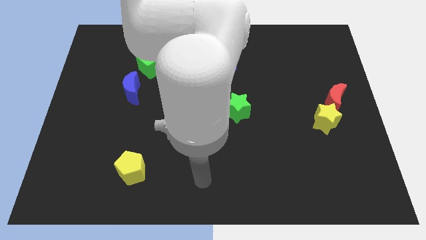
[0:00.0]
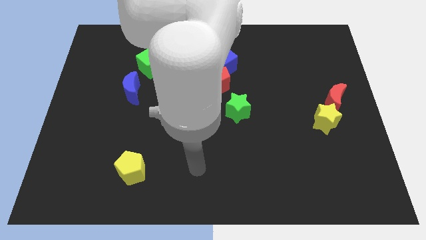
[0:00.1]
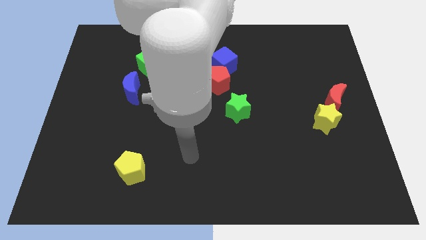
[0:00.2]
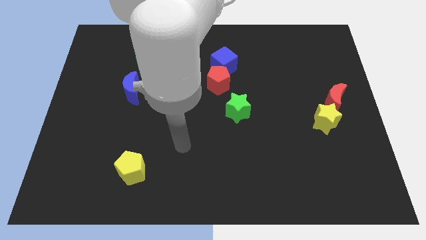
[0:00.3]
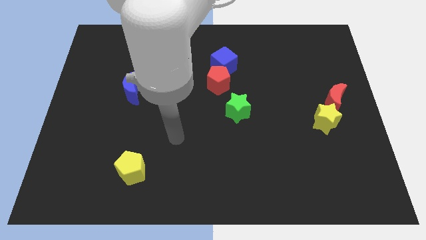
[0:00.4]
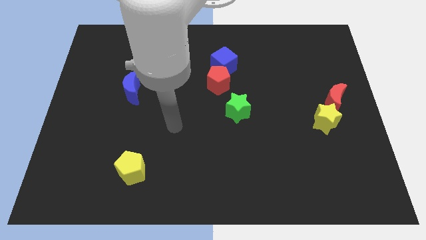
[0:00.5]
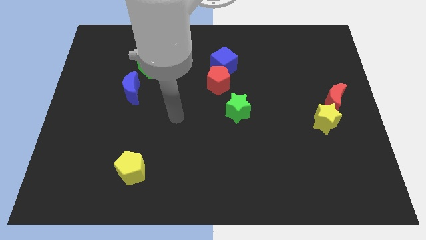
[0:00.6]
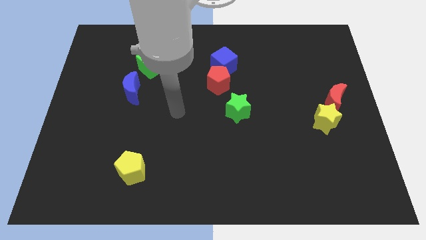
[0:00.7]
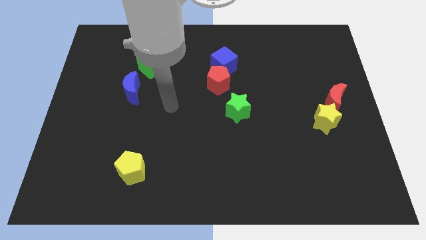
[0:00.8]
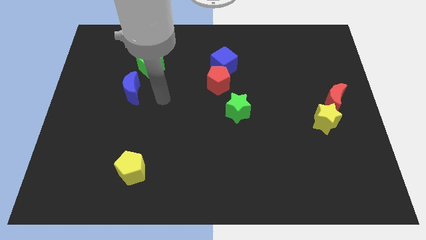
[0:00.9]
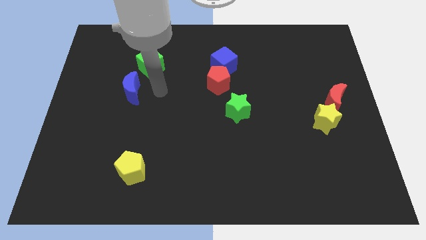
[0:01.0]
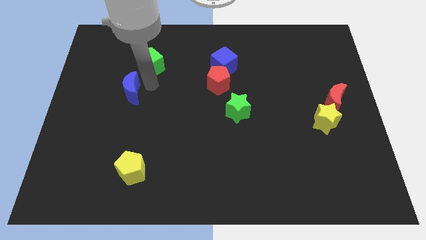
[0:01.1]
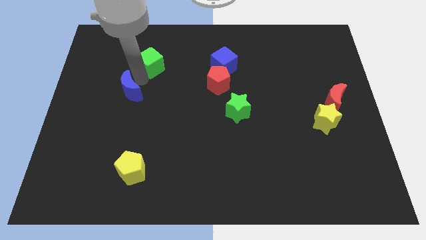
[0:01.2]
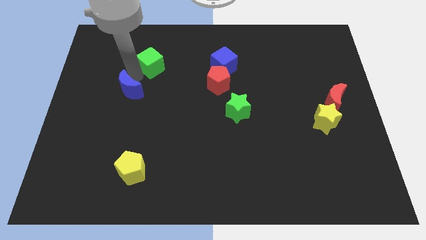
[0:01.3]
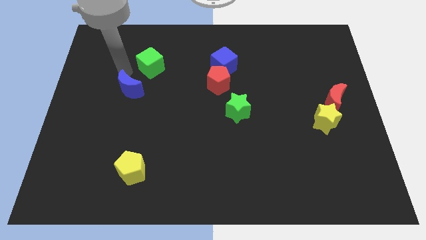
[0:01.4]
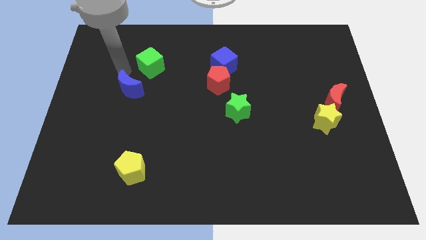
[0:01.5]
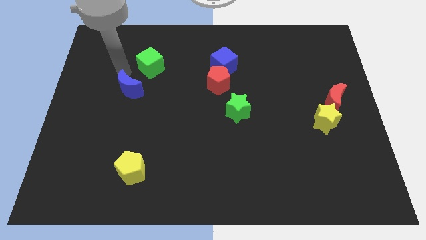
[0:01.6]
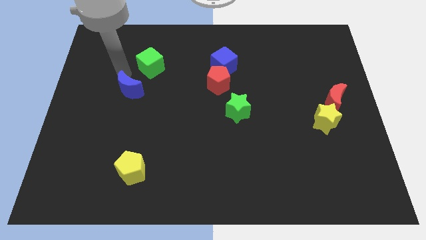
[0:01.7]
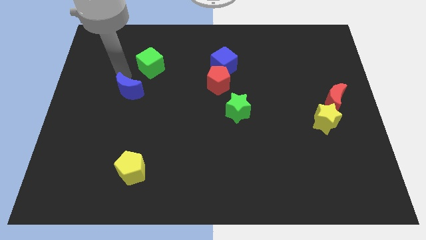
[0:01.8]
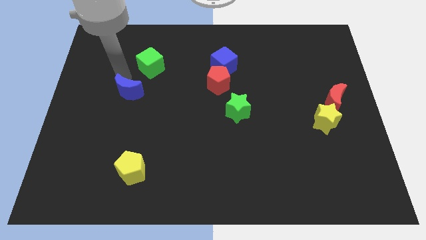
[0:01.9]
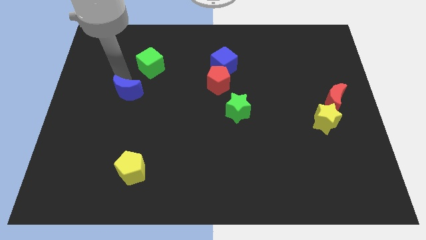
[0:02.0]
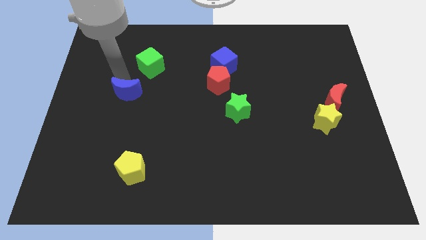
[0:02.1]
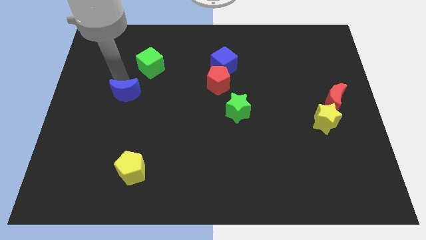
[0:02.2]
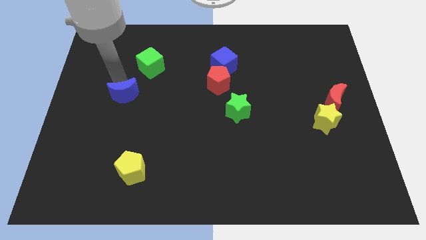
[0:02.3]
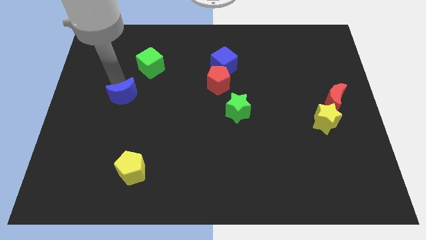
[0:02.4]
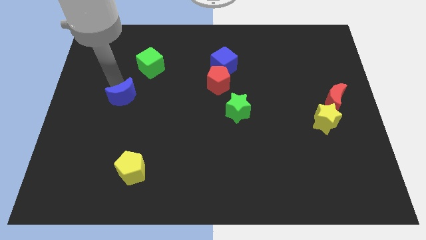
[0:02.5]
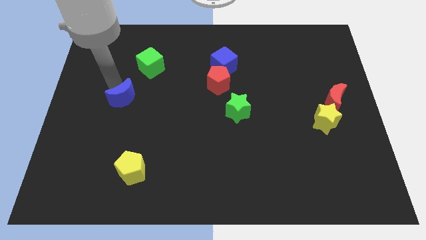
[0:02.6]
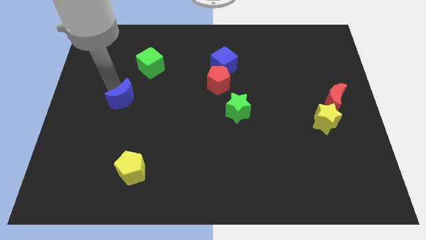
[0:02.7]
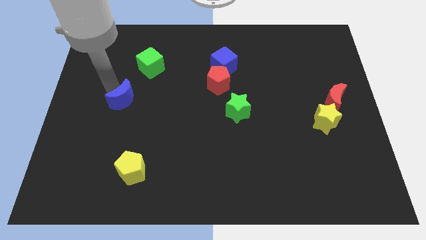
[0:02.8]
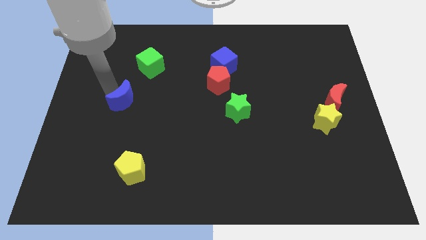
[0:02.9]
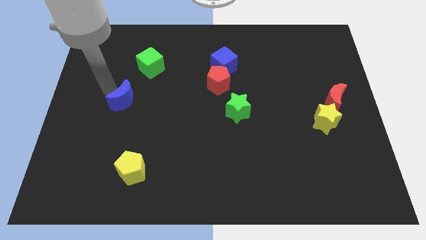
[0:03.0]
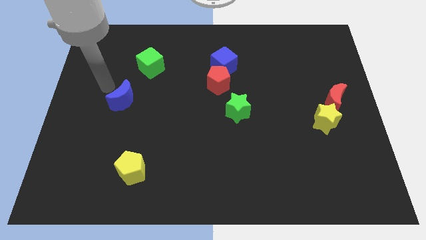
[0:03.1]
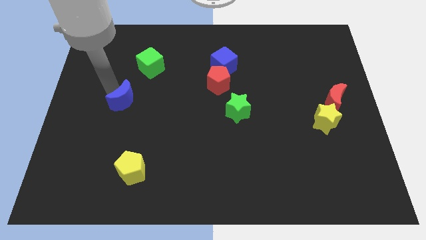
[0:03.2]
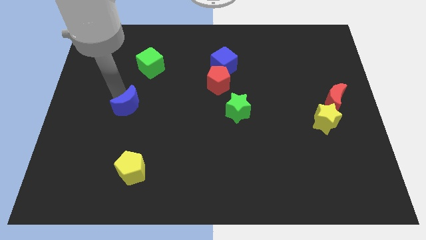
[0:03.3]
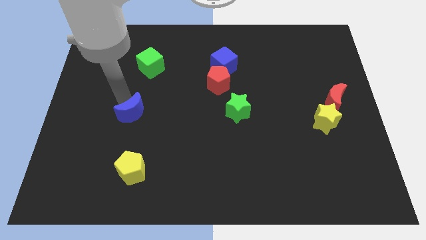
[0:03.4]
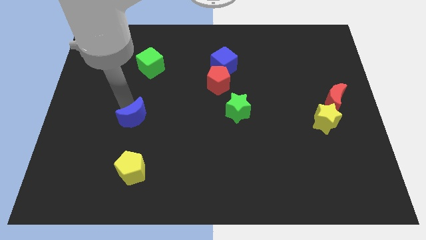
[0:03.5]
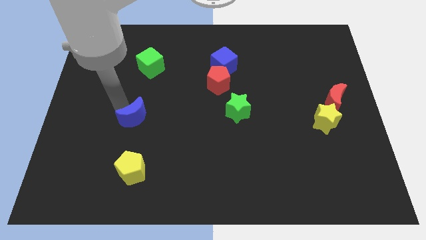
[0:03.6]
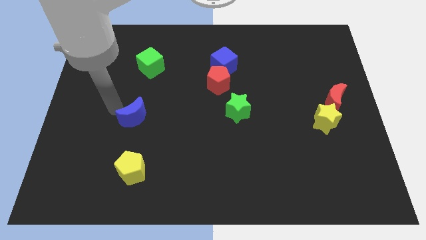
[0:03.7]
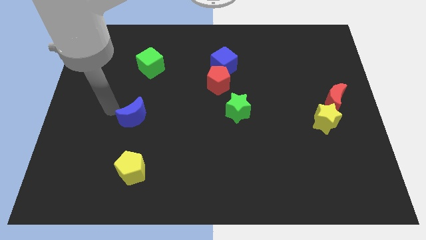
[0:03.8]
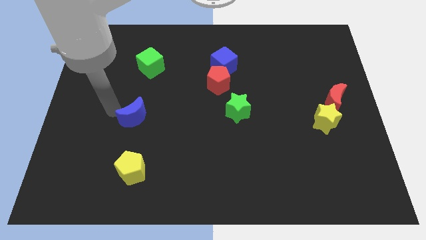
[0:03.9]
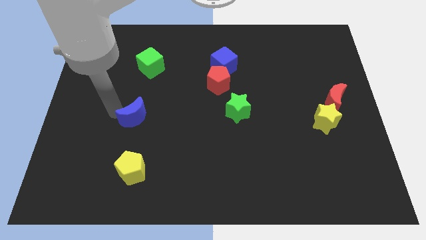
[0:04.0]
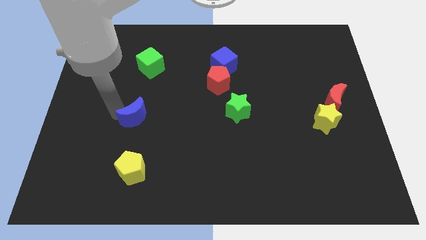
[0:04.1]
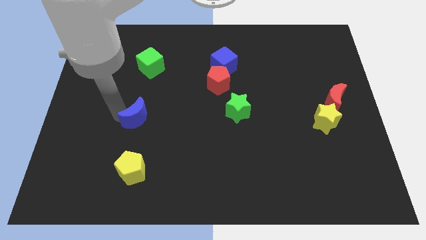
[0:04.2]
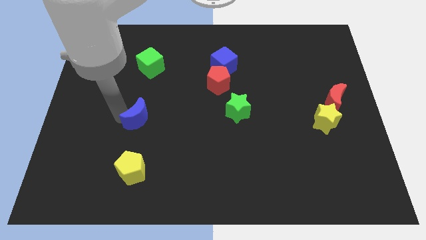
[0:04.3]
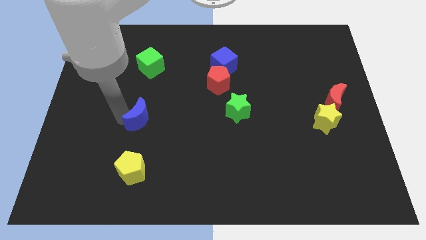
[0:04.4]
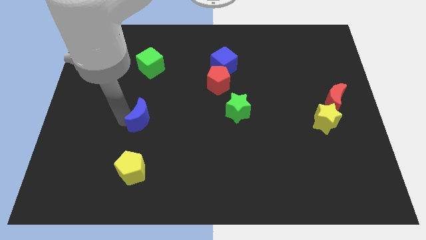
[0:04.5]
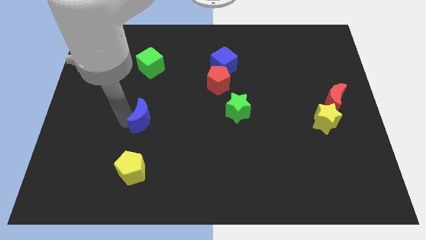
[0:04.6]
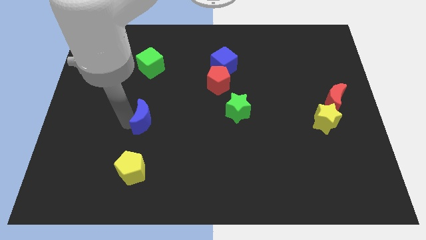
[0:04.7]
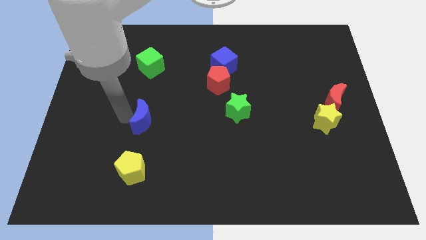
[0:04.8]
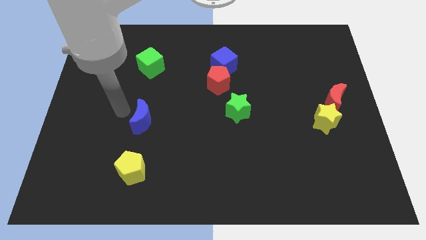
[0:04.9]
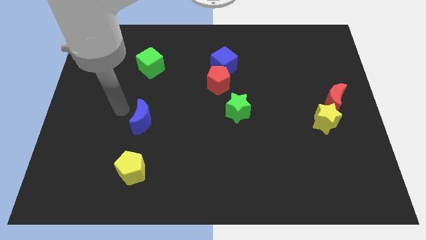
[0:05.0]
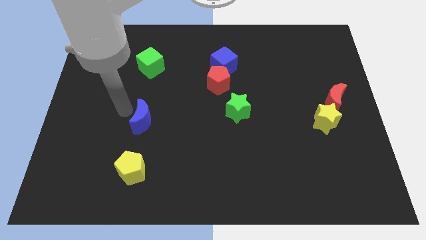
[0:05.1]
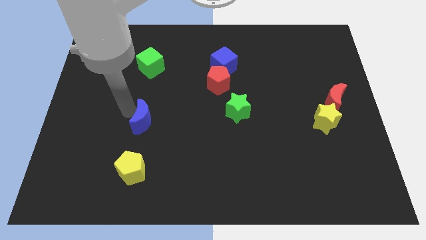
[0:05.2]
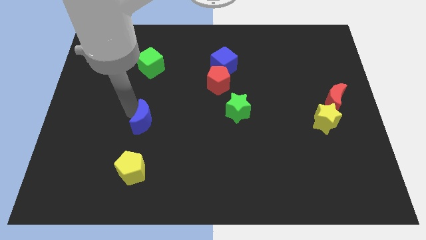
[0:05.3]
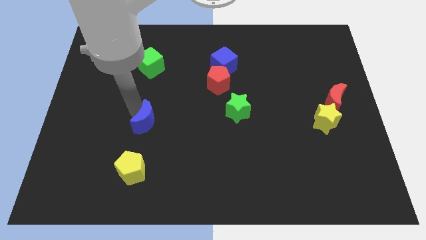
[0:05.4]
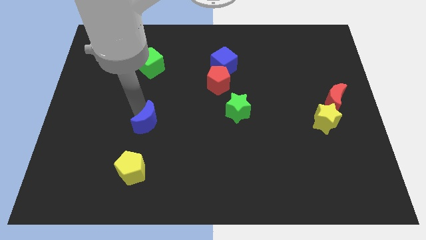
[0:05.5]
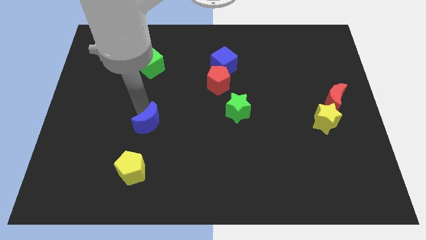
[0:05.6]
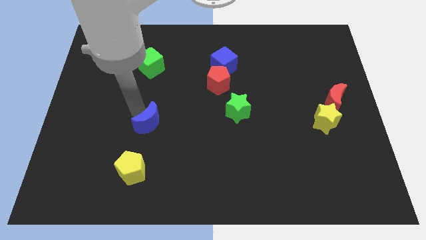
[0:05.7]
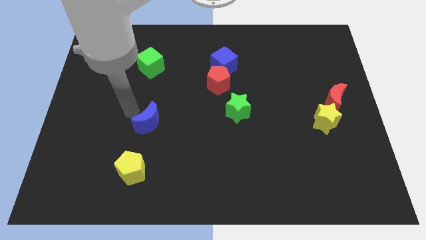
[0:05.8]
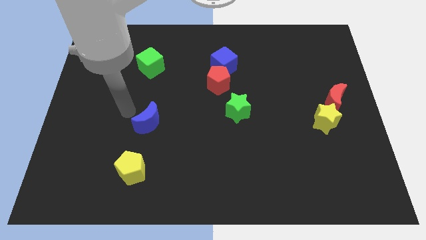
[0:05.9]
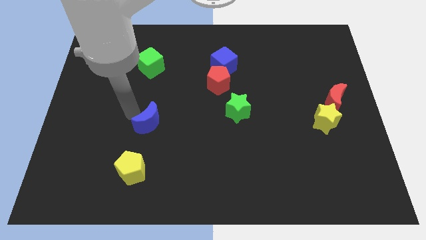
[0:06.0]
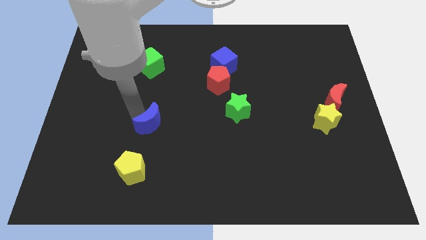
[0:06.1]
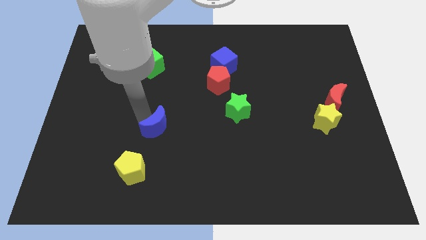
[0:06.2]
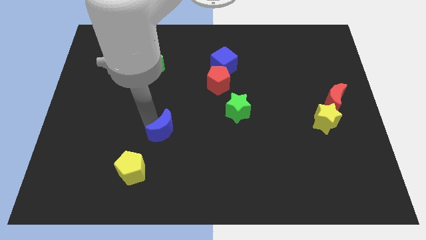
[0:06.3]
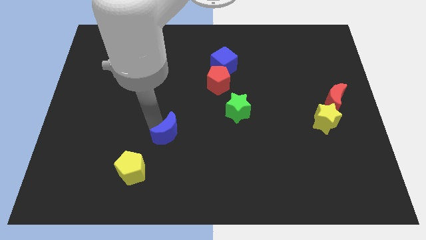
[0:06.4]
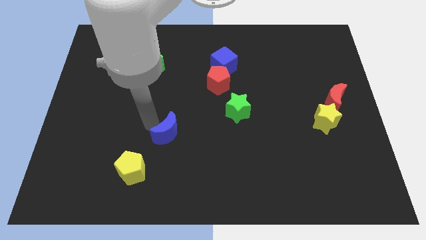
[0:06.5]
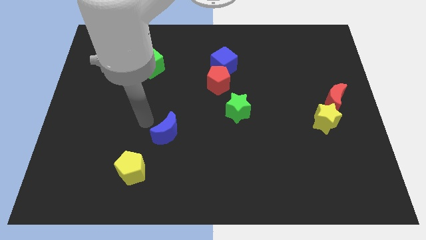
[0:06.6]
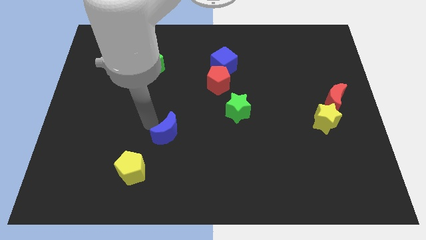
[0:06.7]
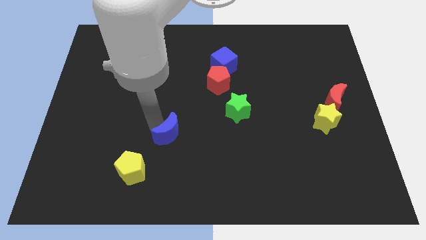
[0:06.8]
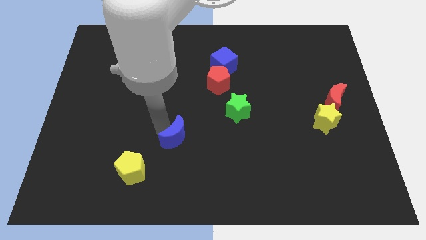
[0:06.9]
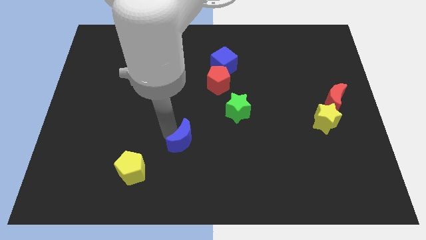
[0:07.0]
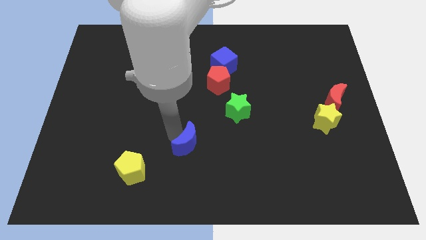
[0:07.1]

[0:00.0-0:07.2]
move the blue moon down and right

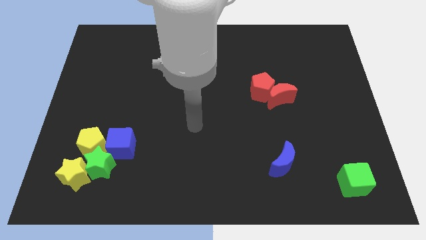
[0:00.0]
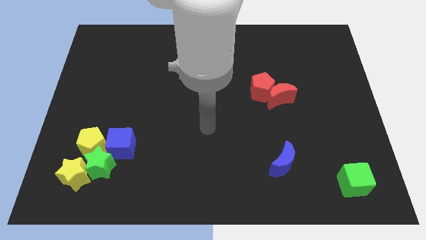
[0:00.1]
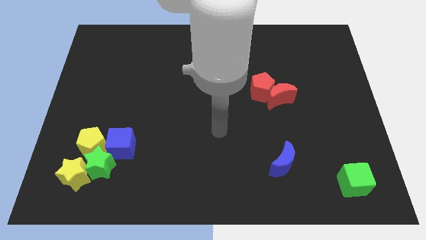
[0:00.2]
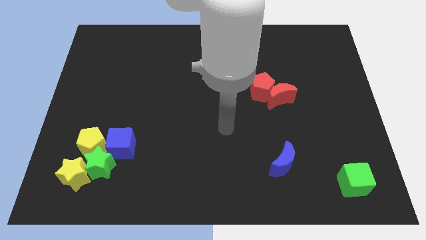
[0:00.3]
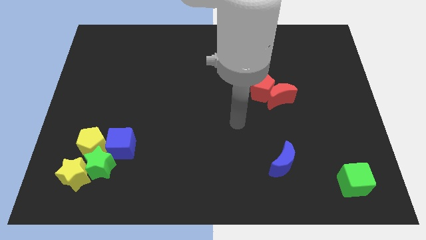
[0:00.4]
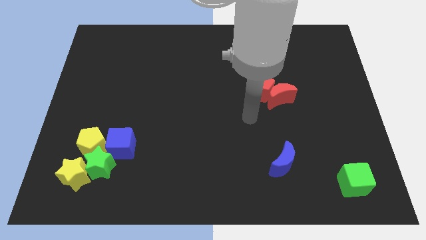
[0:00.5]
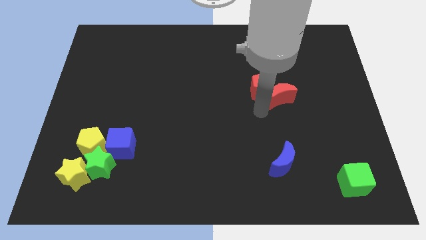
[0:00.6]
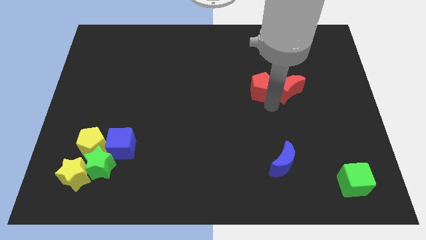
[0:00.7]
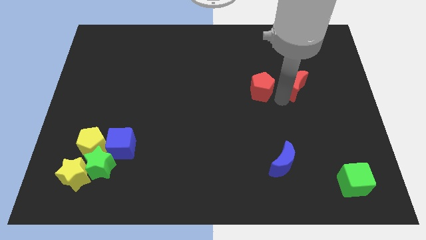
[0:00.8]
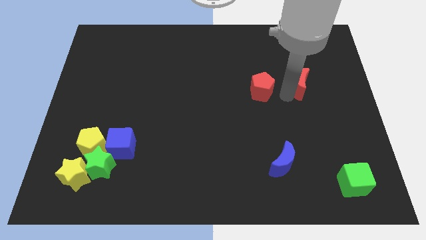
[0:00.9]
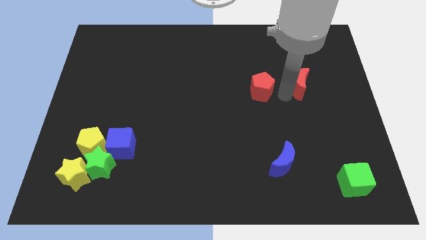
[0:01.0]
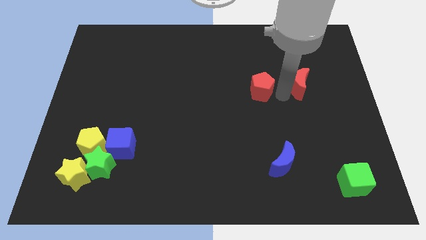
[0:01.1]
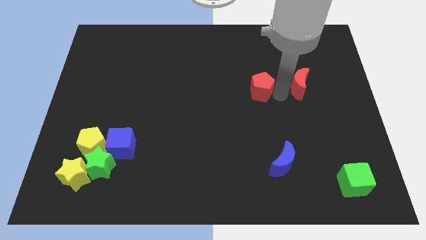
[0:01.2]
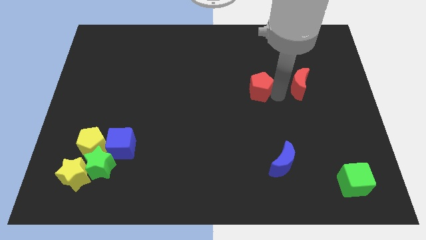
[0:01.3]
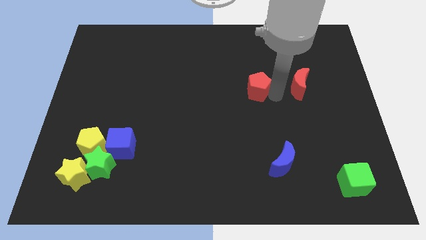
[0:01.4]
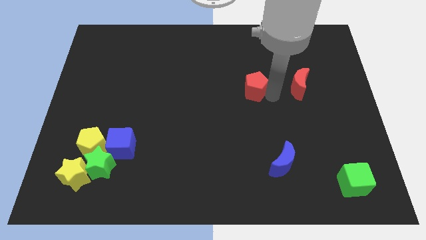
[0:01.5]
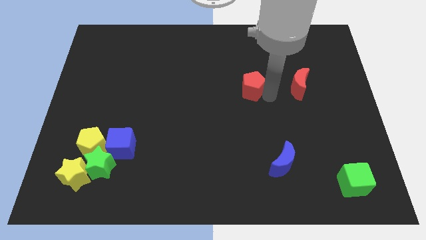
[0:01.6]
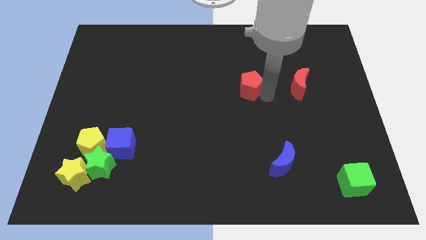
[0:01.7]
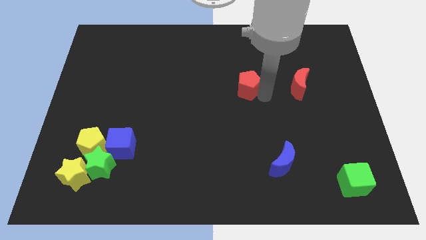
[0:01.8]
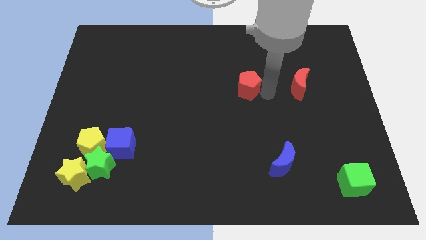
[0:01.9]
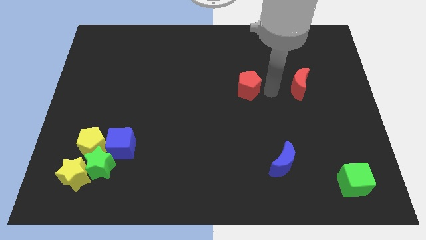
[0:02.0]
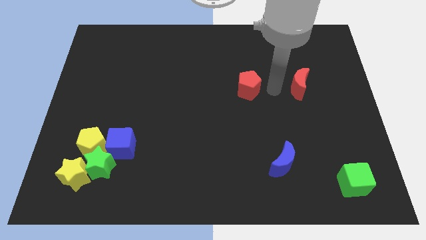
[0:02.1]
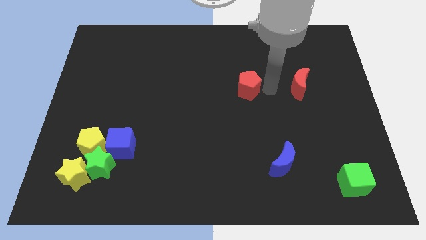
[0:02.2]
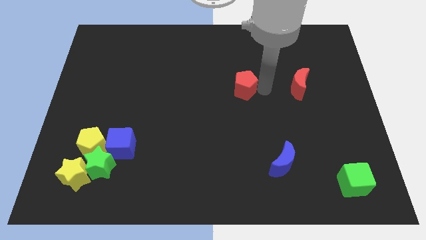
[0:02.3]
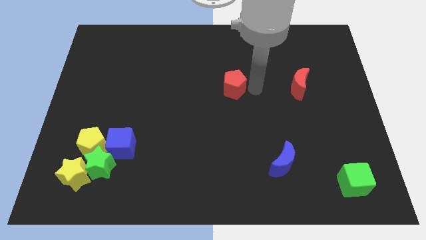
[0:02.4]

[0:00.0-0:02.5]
slide the red pentagon somewhat to the left
